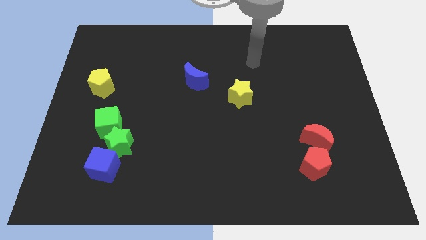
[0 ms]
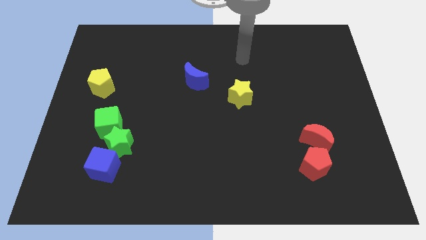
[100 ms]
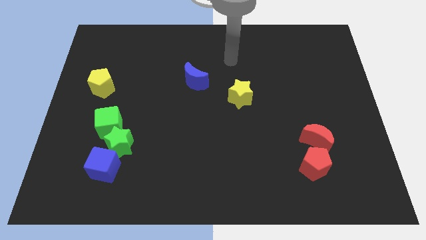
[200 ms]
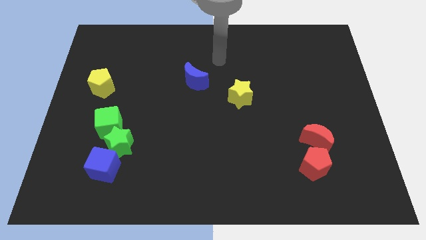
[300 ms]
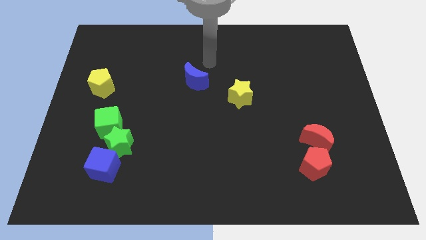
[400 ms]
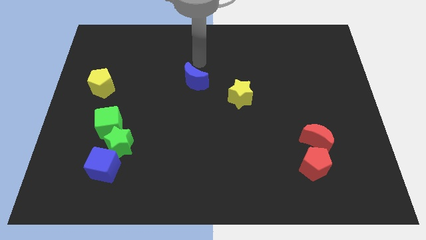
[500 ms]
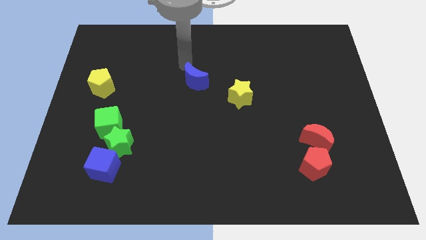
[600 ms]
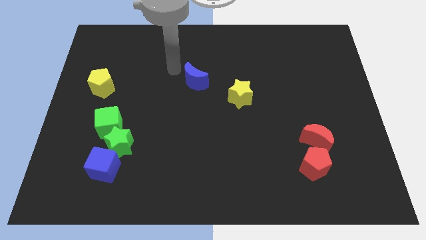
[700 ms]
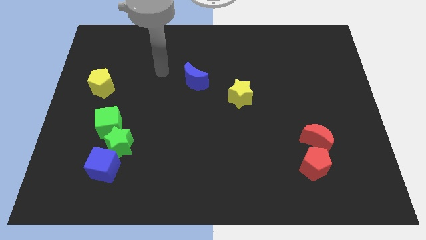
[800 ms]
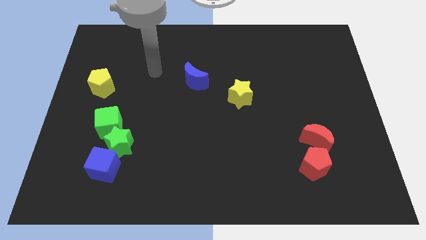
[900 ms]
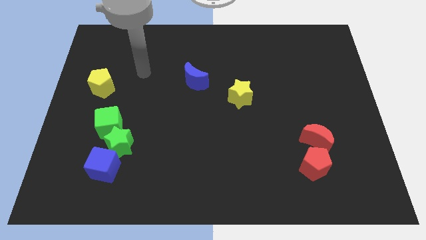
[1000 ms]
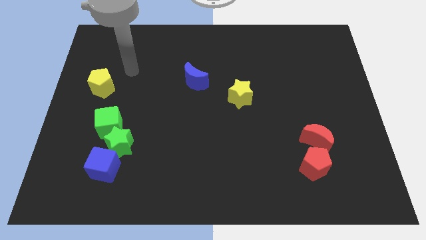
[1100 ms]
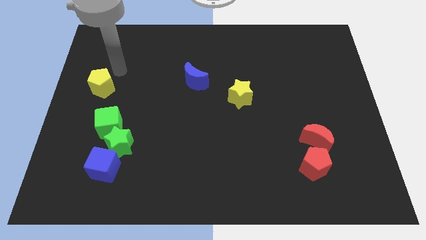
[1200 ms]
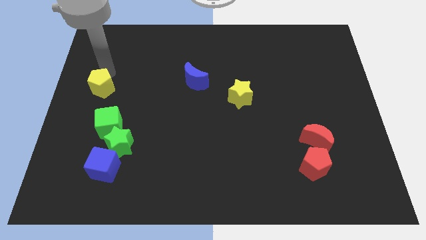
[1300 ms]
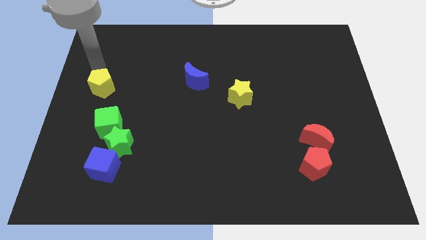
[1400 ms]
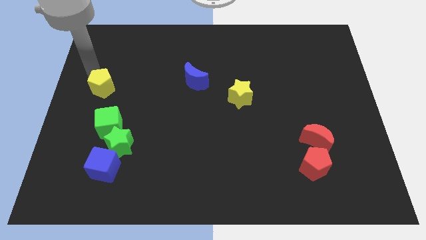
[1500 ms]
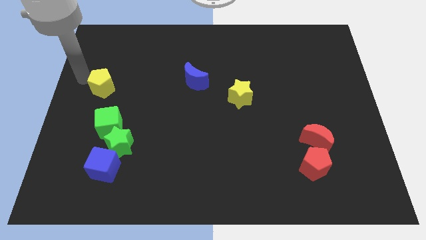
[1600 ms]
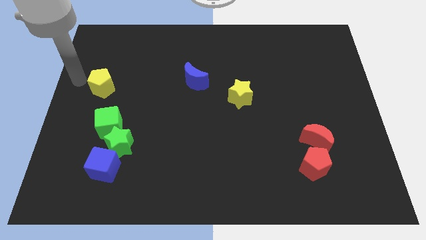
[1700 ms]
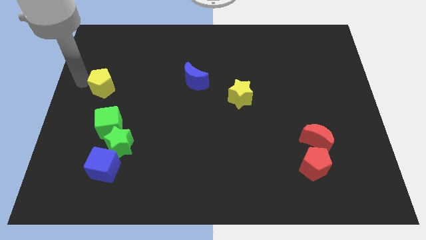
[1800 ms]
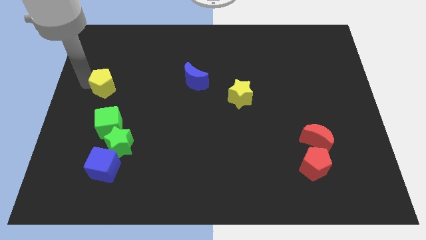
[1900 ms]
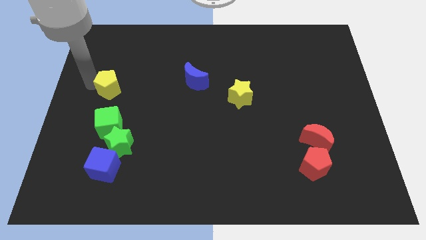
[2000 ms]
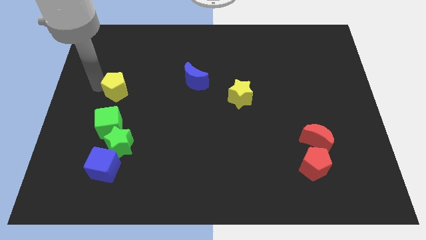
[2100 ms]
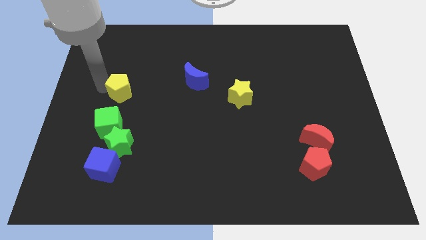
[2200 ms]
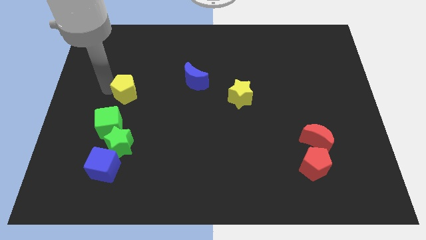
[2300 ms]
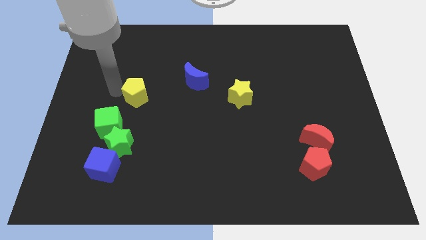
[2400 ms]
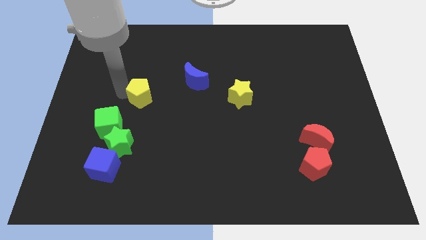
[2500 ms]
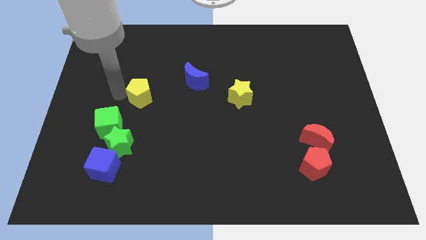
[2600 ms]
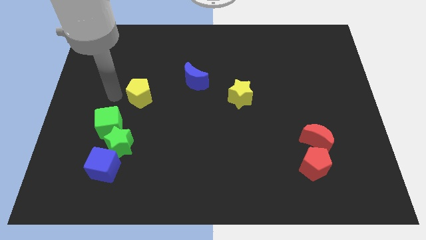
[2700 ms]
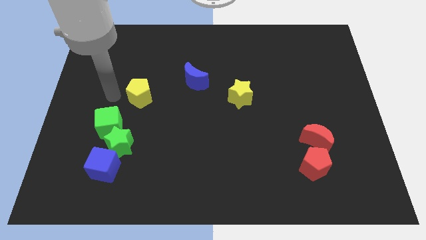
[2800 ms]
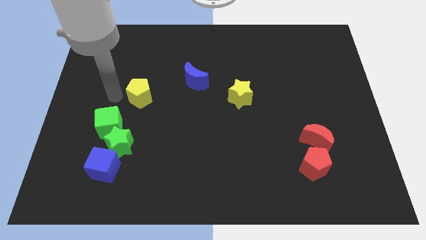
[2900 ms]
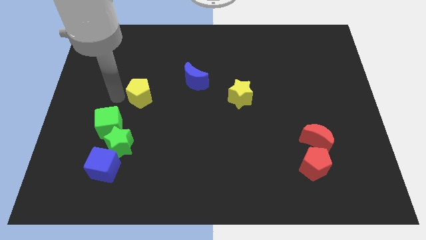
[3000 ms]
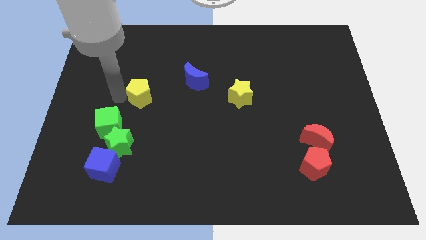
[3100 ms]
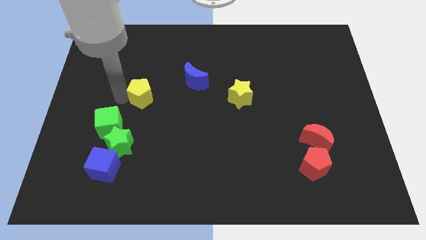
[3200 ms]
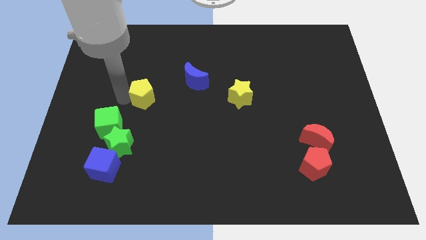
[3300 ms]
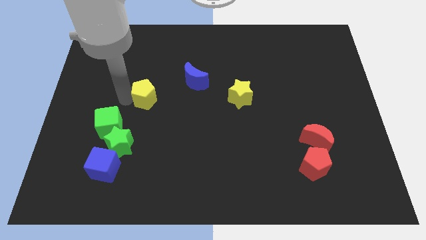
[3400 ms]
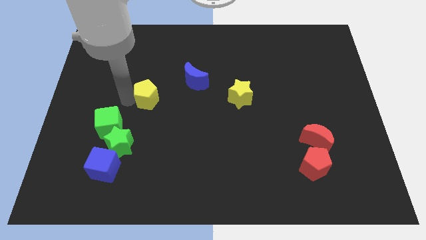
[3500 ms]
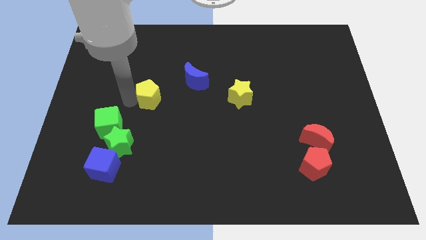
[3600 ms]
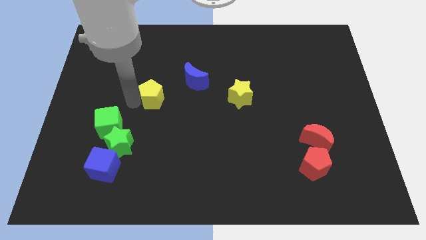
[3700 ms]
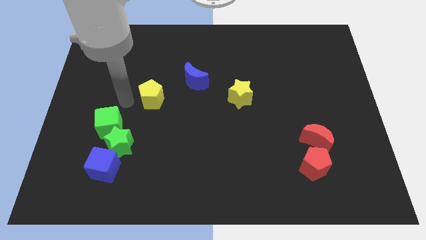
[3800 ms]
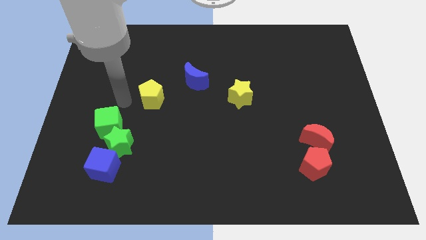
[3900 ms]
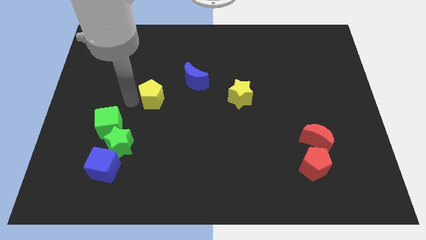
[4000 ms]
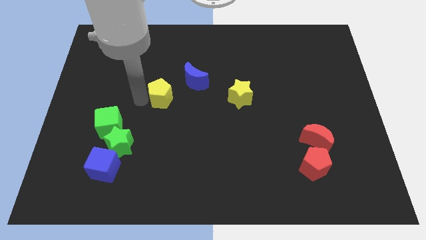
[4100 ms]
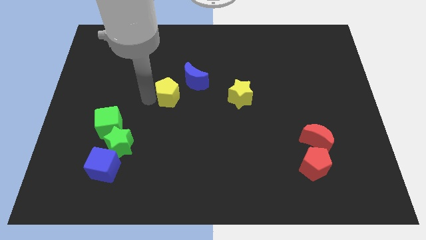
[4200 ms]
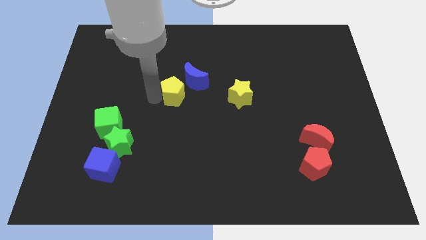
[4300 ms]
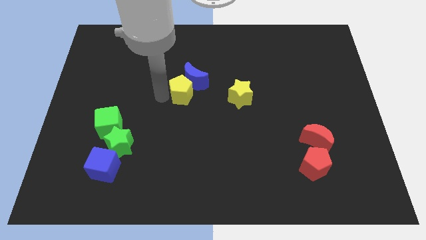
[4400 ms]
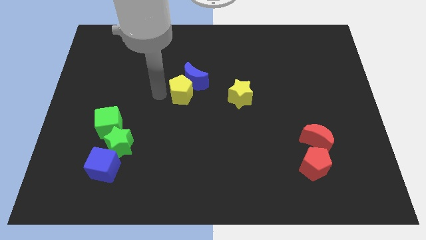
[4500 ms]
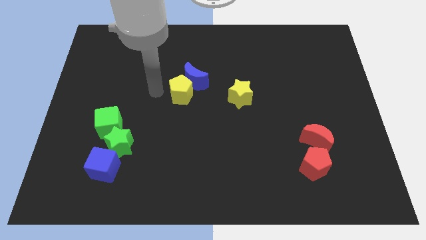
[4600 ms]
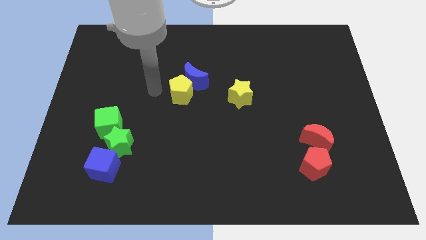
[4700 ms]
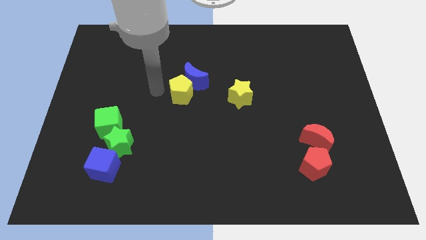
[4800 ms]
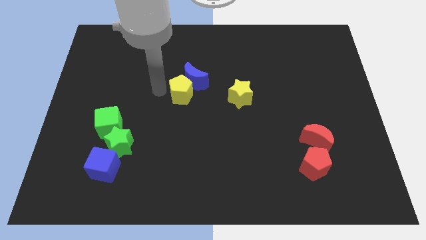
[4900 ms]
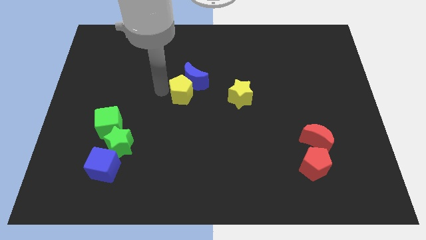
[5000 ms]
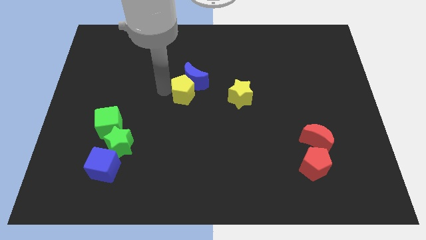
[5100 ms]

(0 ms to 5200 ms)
slide the yellow pentagon right

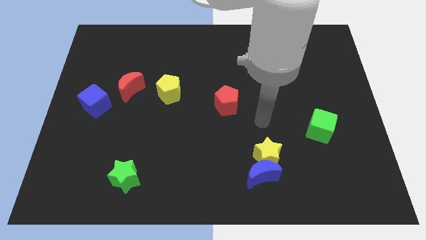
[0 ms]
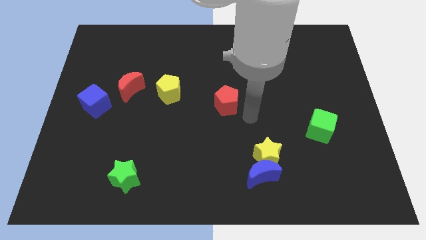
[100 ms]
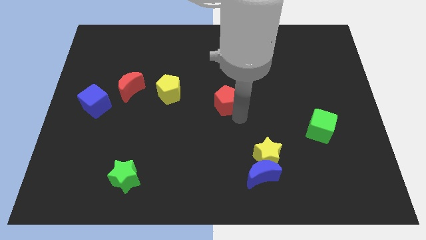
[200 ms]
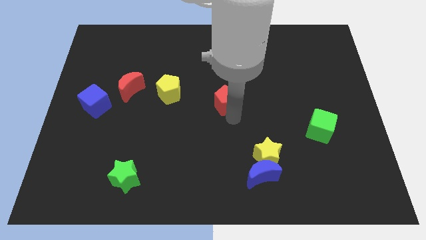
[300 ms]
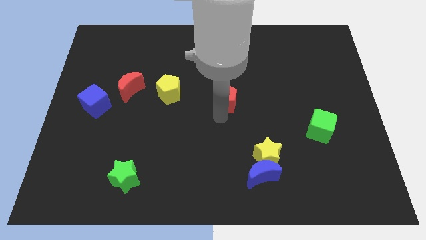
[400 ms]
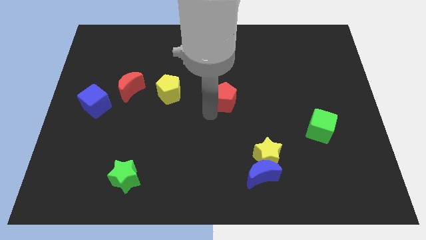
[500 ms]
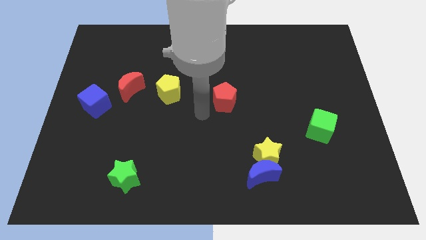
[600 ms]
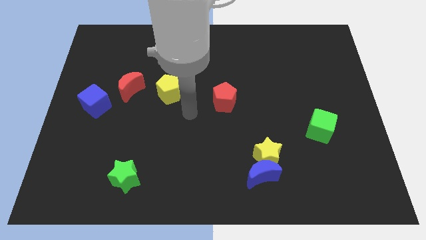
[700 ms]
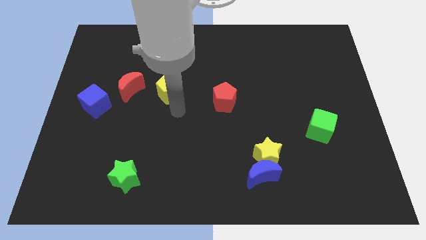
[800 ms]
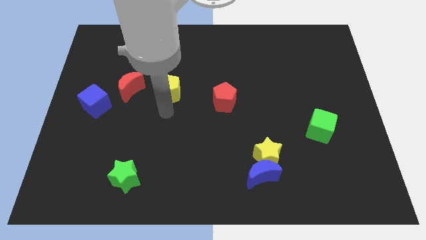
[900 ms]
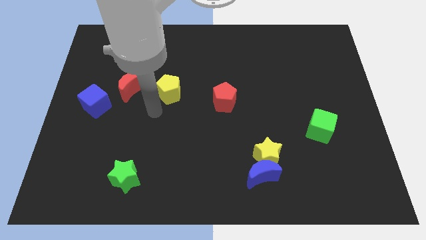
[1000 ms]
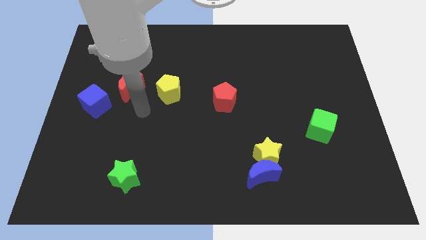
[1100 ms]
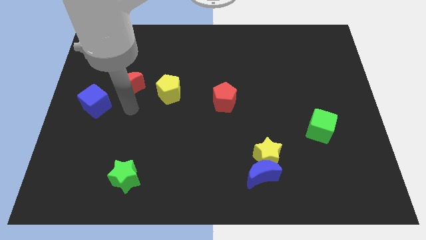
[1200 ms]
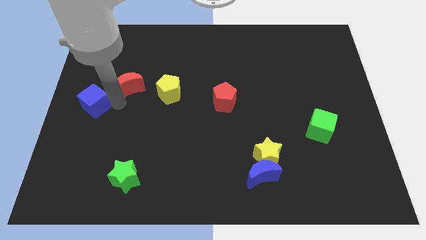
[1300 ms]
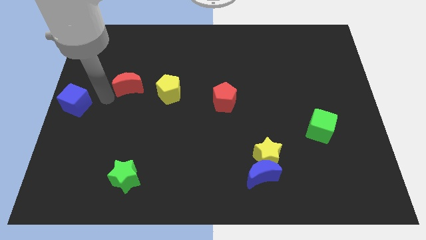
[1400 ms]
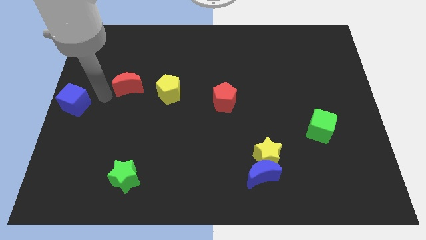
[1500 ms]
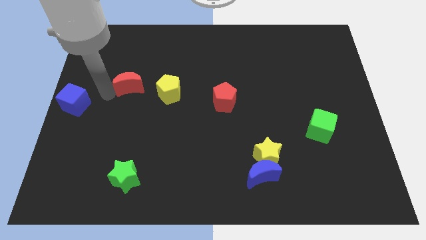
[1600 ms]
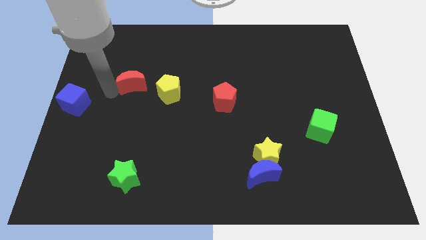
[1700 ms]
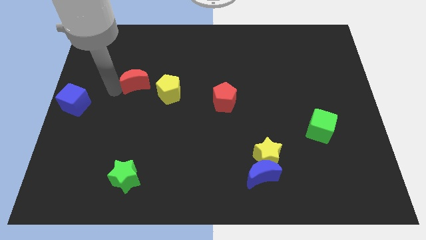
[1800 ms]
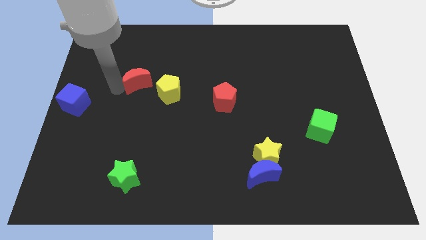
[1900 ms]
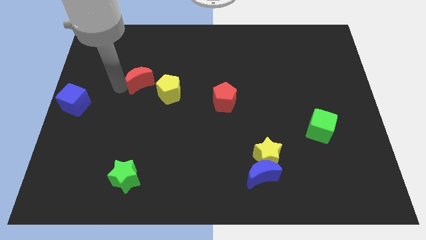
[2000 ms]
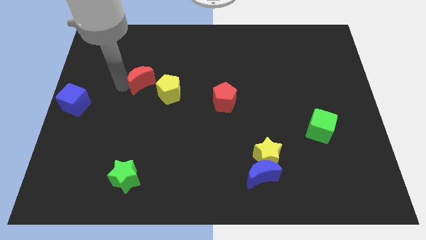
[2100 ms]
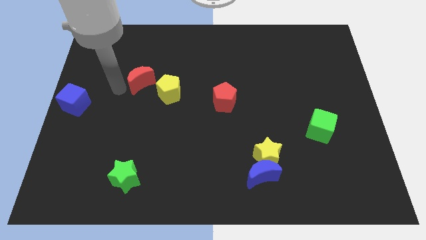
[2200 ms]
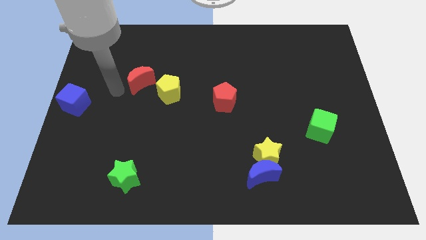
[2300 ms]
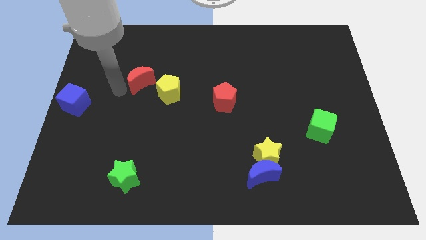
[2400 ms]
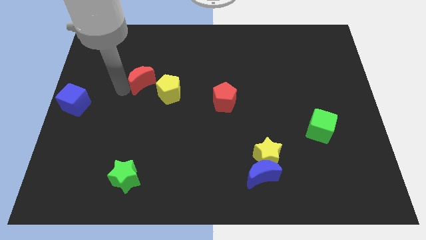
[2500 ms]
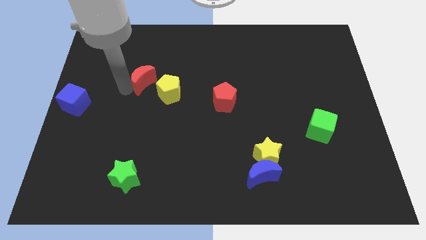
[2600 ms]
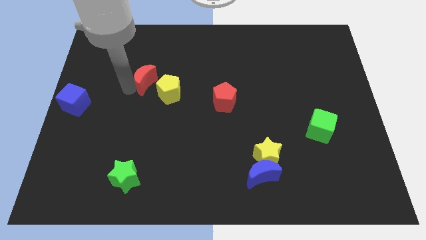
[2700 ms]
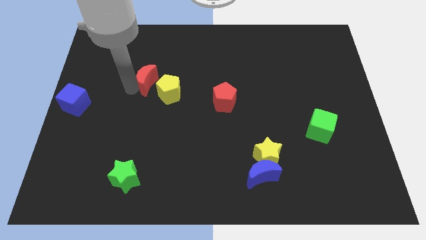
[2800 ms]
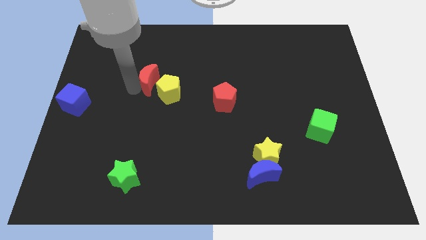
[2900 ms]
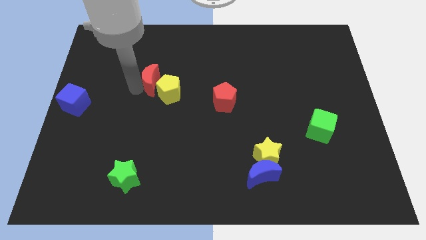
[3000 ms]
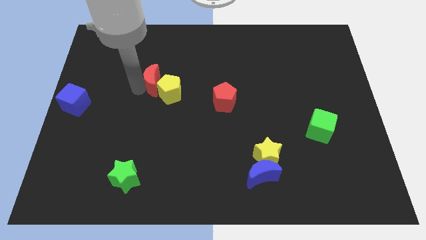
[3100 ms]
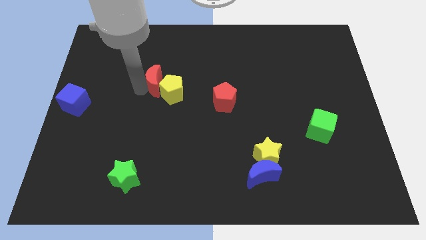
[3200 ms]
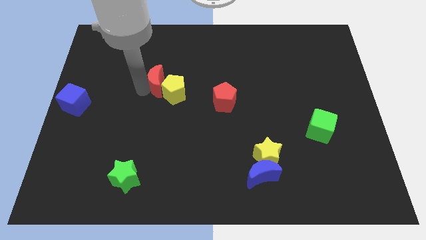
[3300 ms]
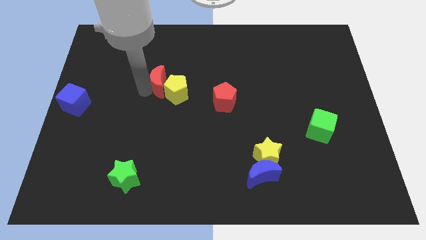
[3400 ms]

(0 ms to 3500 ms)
slightly move the red moon to the right
